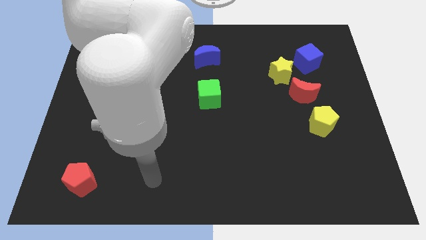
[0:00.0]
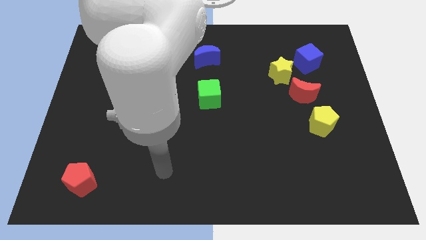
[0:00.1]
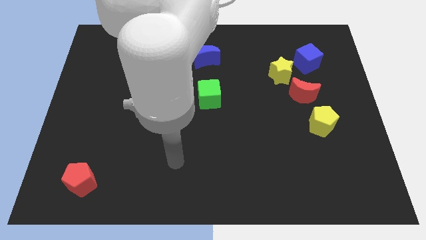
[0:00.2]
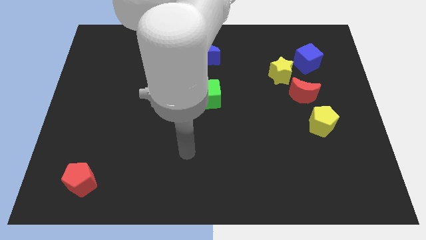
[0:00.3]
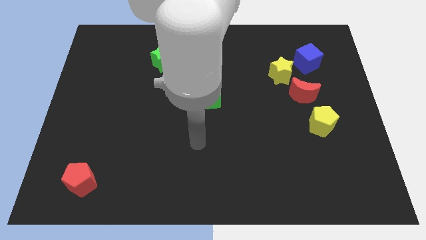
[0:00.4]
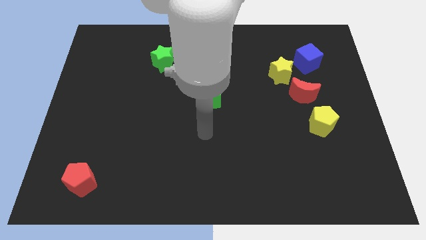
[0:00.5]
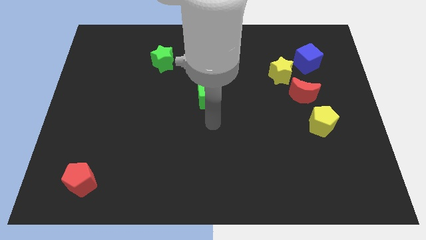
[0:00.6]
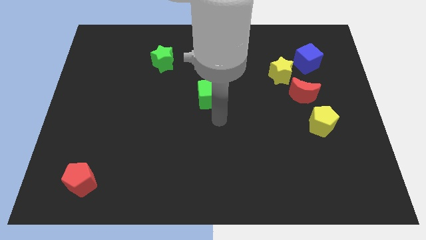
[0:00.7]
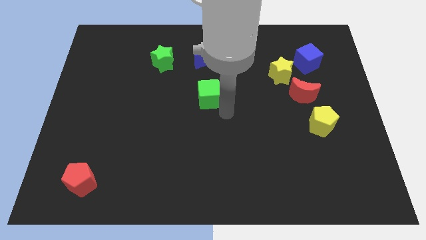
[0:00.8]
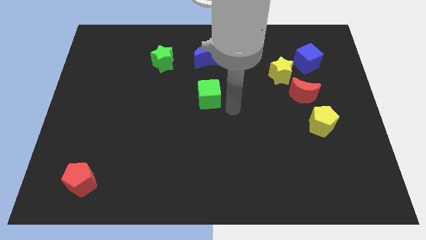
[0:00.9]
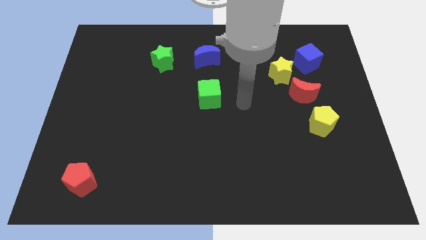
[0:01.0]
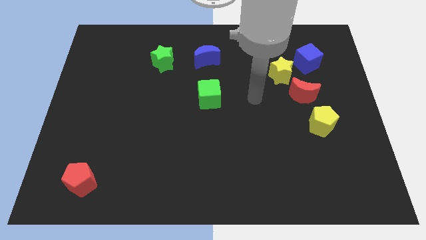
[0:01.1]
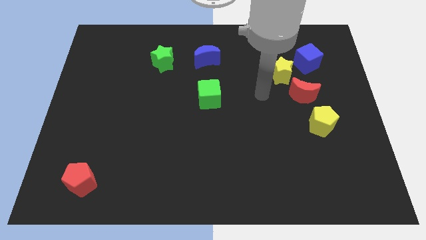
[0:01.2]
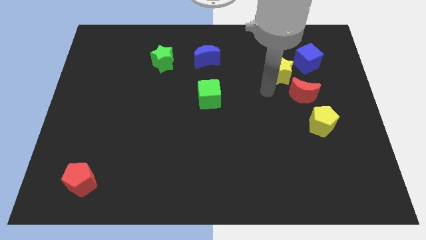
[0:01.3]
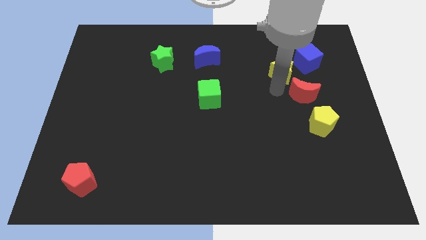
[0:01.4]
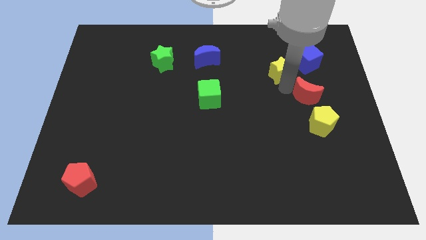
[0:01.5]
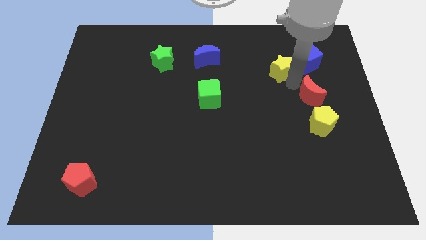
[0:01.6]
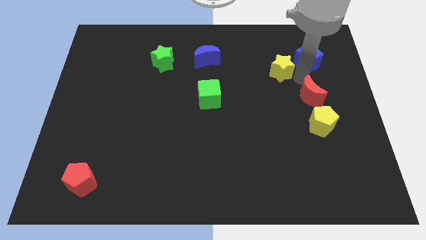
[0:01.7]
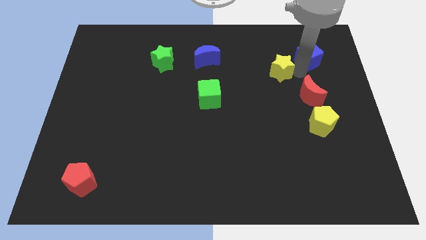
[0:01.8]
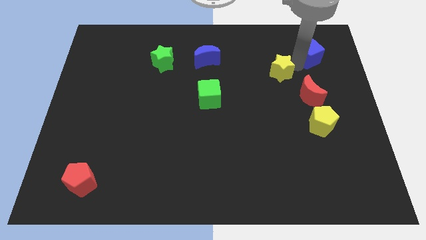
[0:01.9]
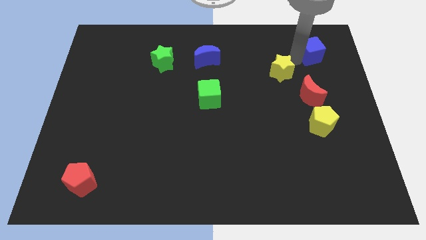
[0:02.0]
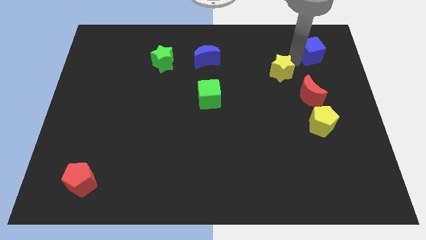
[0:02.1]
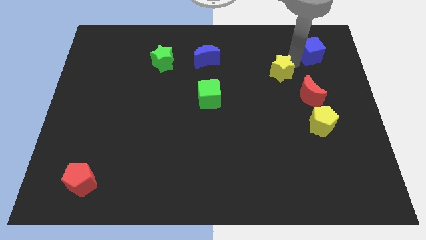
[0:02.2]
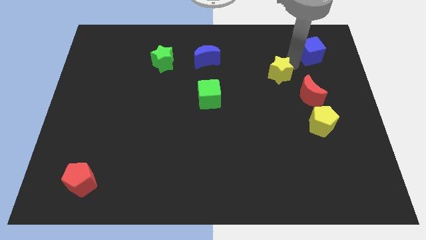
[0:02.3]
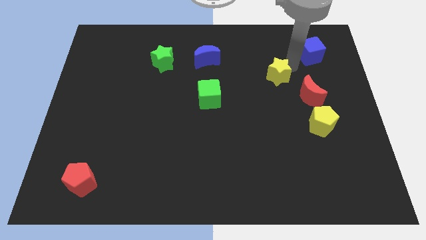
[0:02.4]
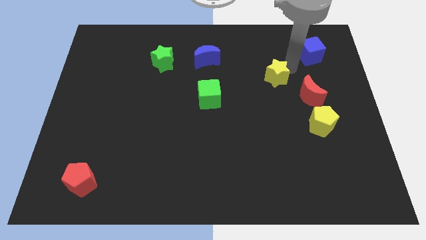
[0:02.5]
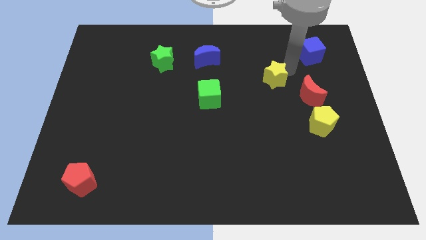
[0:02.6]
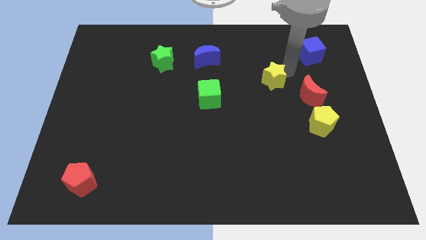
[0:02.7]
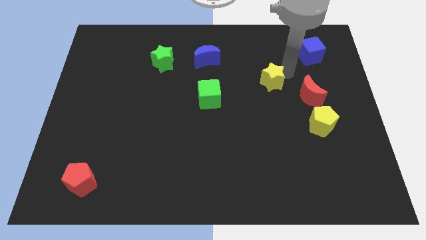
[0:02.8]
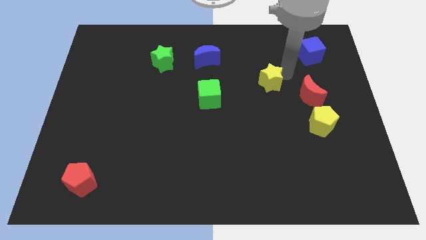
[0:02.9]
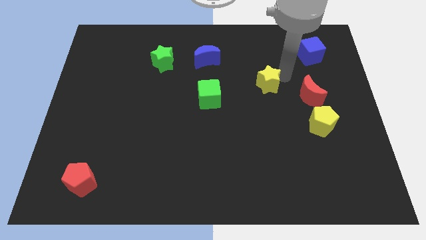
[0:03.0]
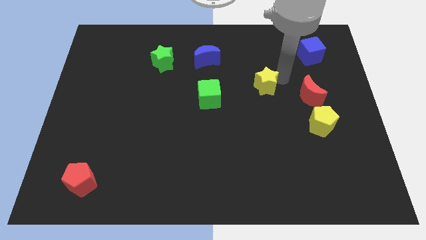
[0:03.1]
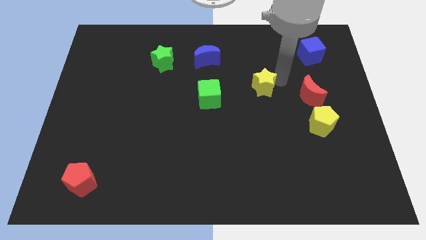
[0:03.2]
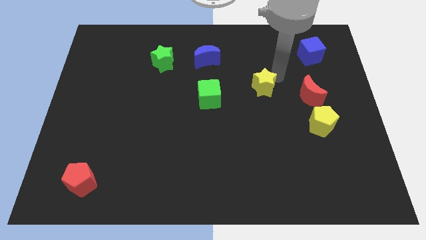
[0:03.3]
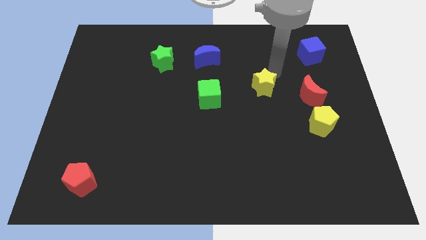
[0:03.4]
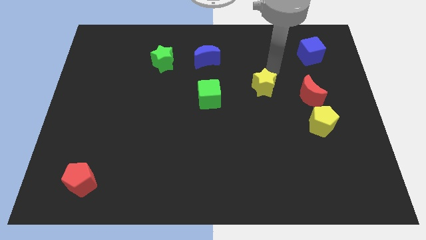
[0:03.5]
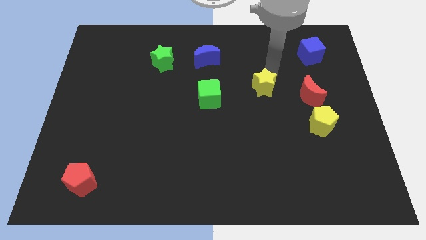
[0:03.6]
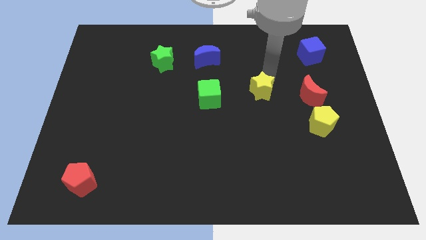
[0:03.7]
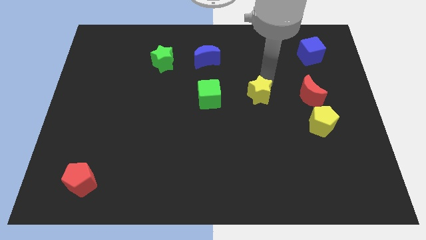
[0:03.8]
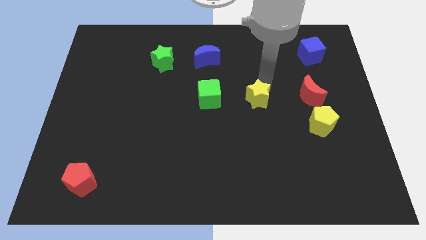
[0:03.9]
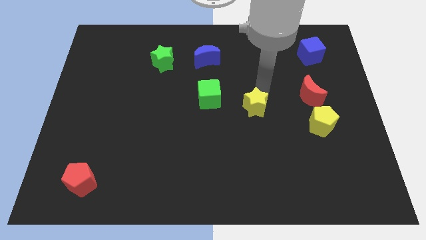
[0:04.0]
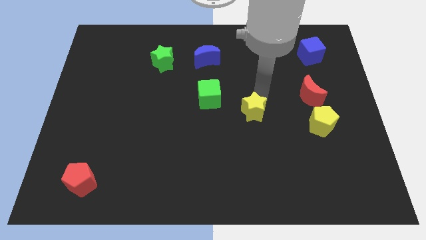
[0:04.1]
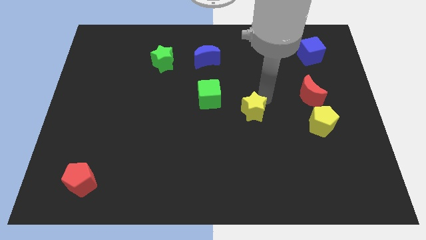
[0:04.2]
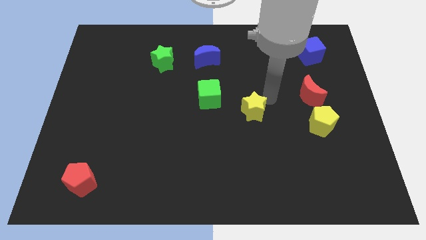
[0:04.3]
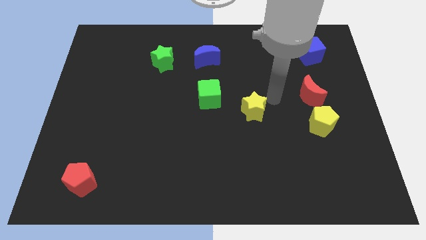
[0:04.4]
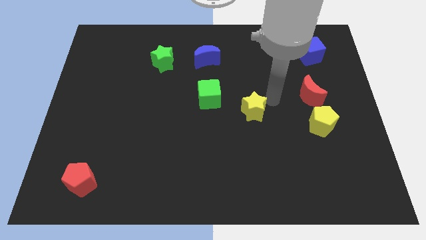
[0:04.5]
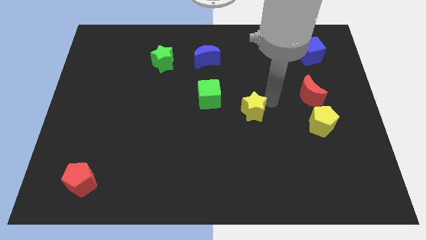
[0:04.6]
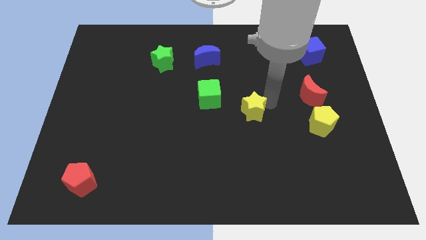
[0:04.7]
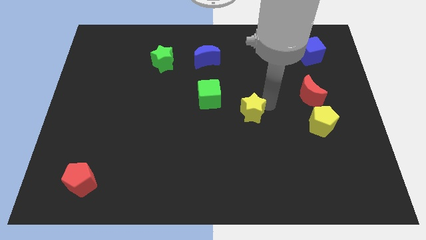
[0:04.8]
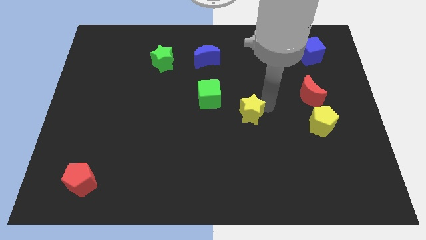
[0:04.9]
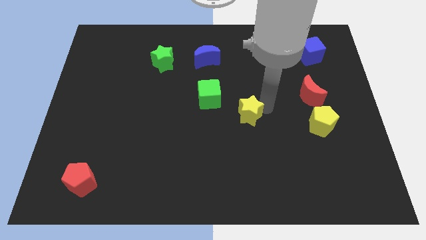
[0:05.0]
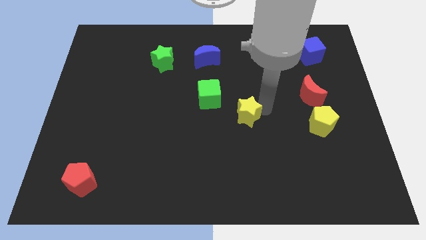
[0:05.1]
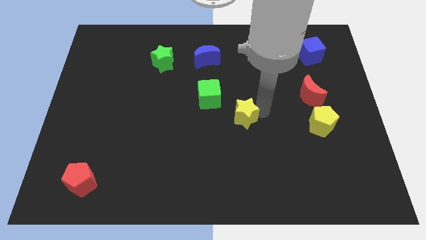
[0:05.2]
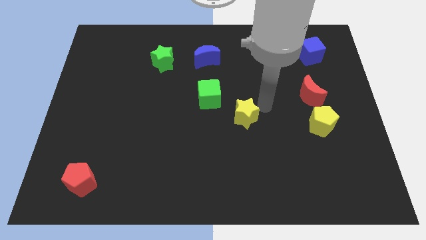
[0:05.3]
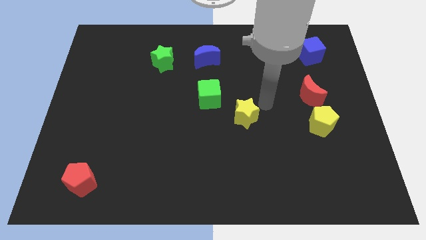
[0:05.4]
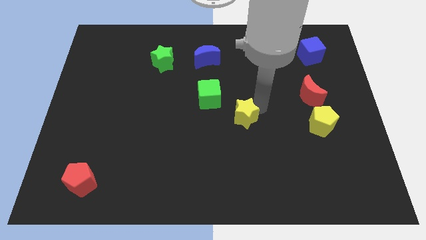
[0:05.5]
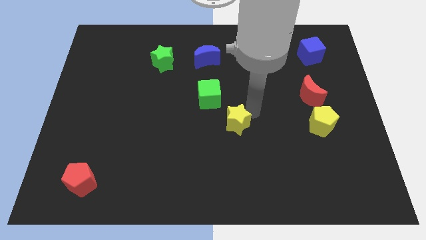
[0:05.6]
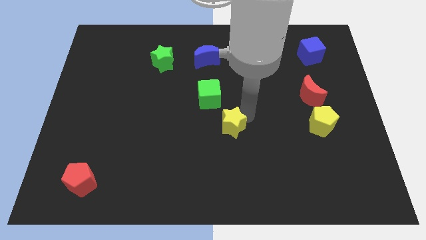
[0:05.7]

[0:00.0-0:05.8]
move the yellow star diagonally down and left

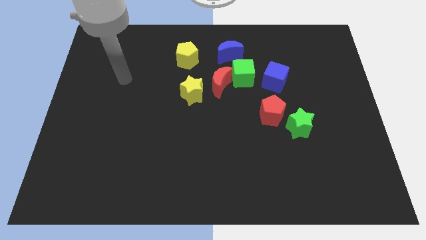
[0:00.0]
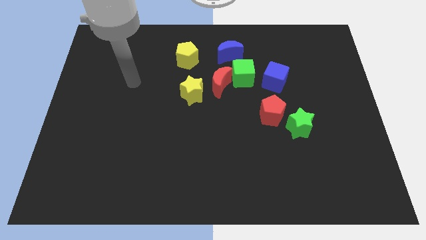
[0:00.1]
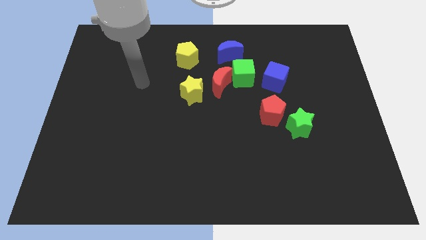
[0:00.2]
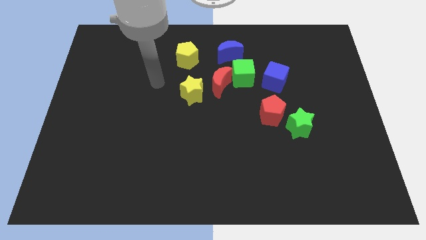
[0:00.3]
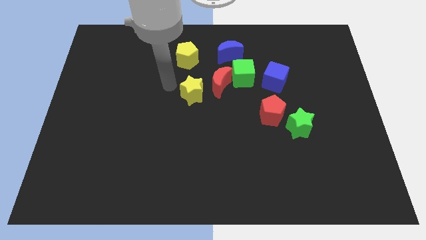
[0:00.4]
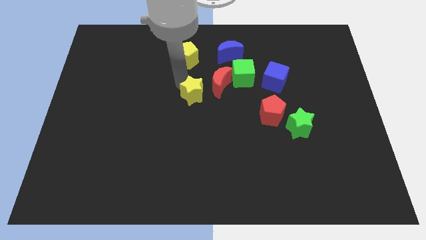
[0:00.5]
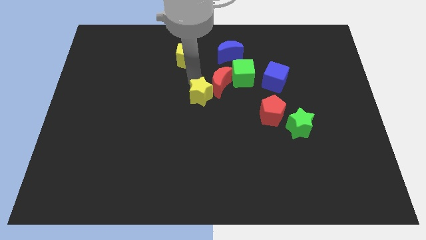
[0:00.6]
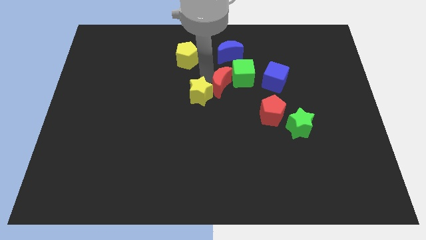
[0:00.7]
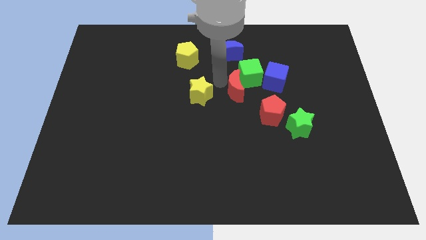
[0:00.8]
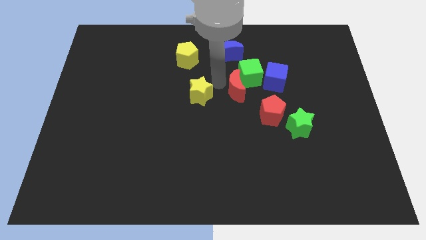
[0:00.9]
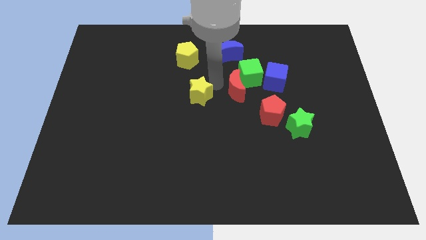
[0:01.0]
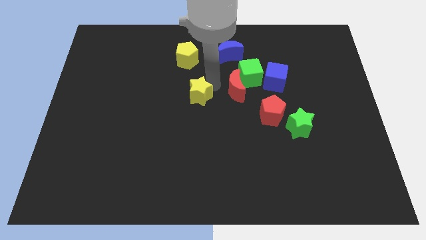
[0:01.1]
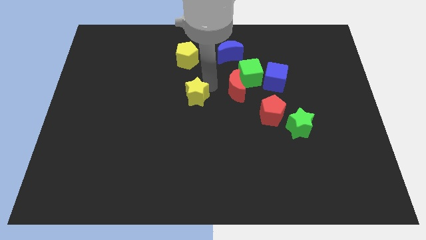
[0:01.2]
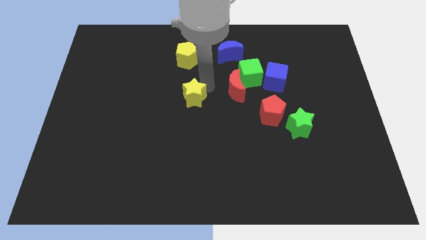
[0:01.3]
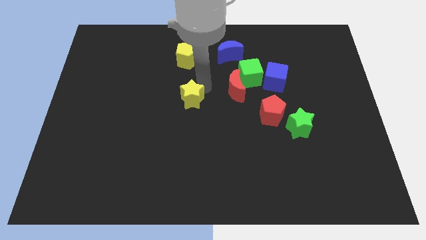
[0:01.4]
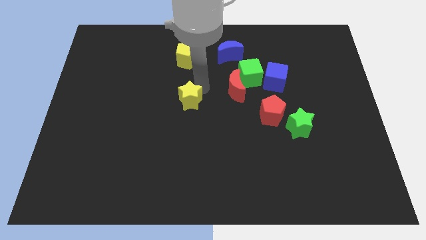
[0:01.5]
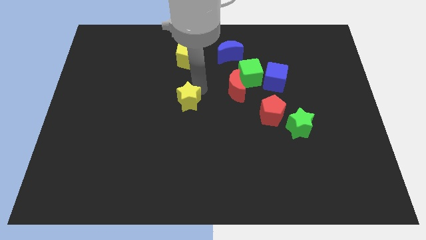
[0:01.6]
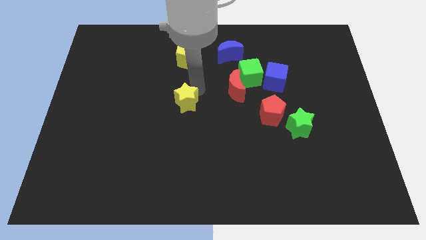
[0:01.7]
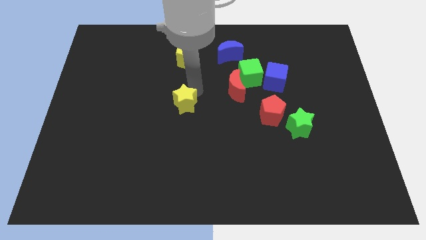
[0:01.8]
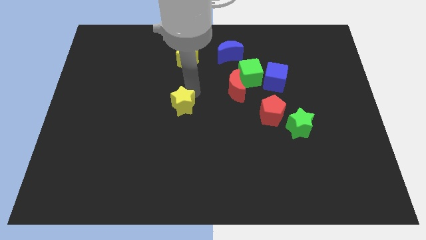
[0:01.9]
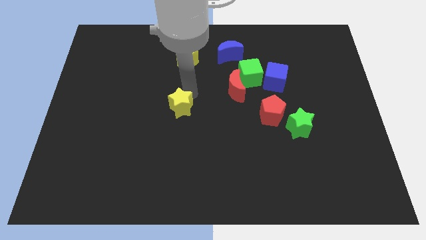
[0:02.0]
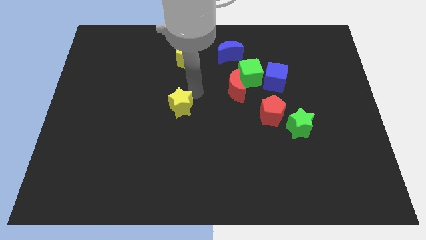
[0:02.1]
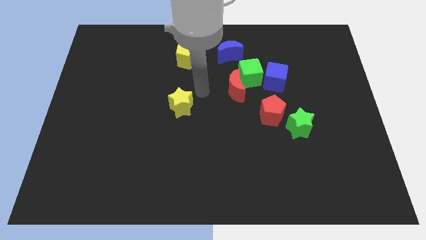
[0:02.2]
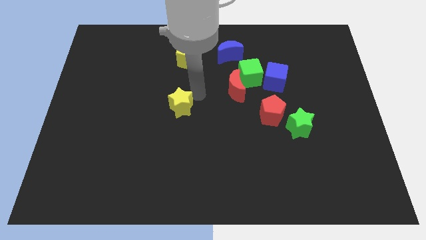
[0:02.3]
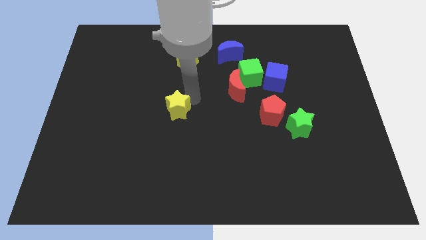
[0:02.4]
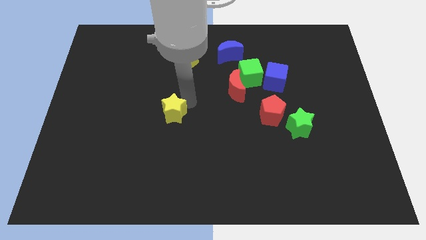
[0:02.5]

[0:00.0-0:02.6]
push the yellow star down and then to the left a little bit
